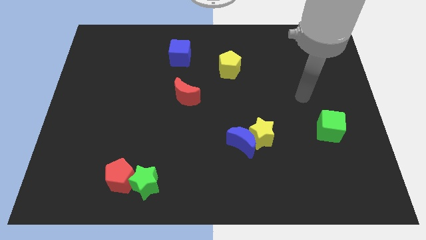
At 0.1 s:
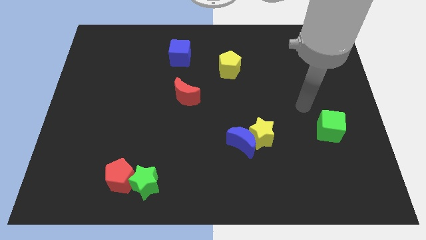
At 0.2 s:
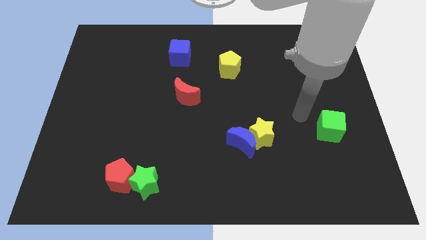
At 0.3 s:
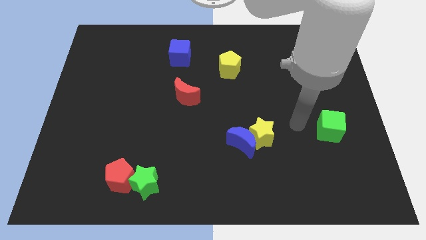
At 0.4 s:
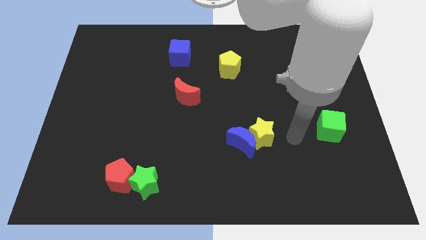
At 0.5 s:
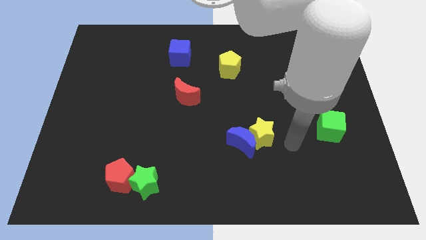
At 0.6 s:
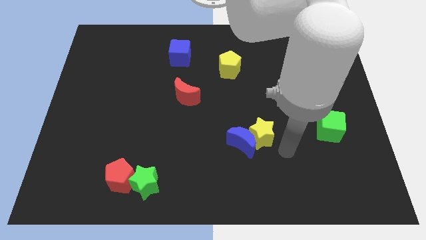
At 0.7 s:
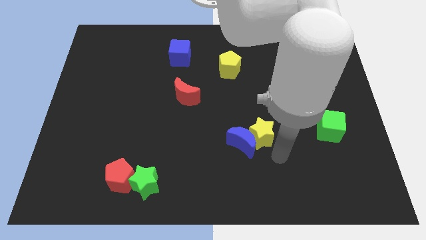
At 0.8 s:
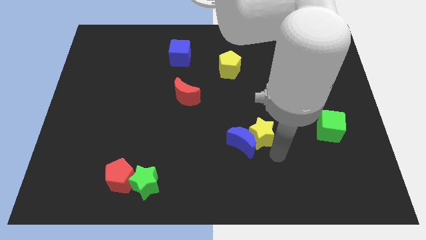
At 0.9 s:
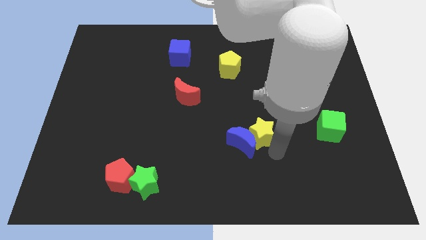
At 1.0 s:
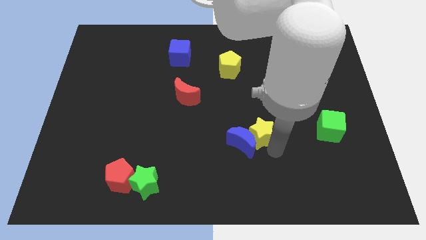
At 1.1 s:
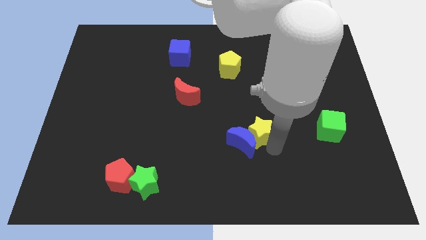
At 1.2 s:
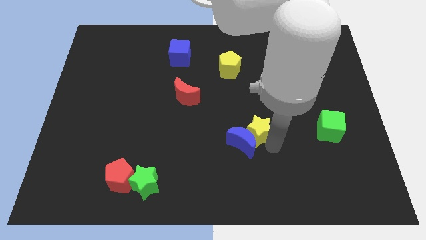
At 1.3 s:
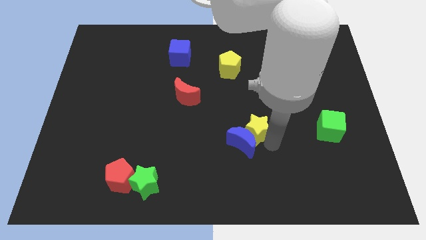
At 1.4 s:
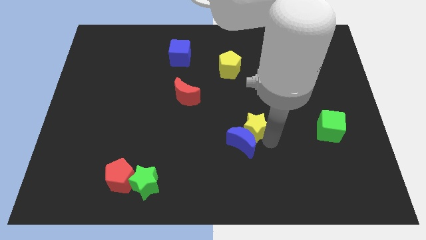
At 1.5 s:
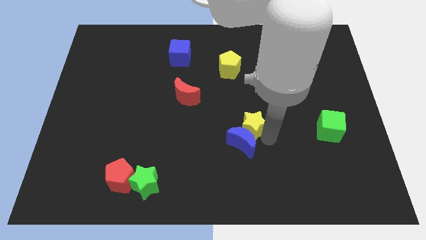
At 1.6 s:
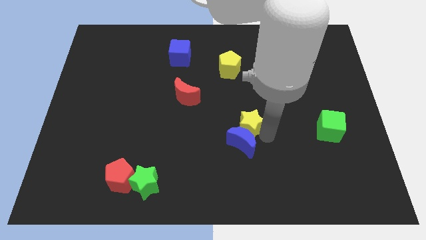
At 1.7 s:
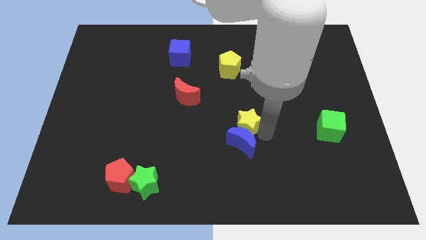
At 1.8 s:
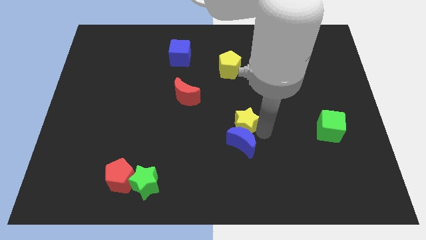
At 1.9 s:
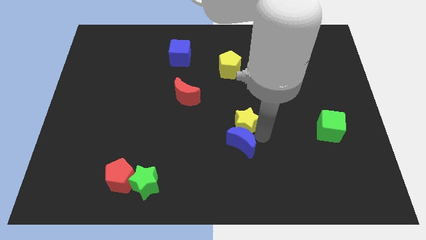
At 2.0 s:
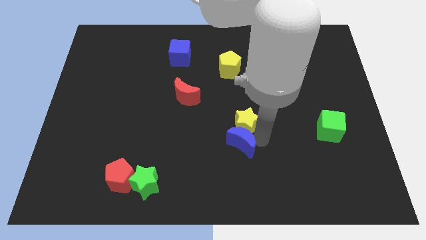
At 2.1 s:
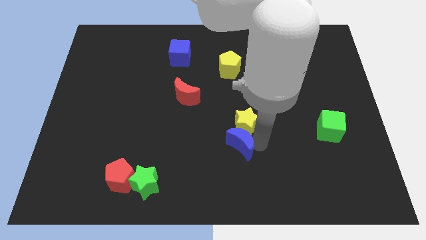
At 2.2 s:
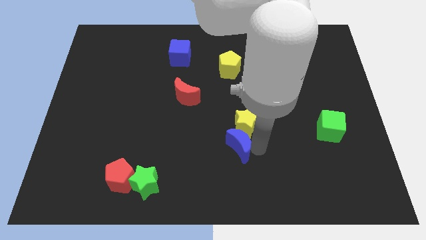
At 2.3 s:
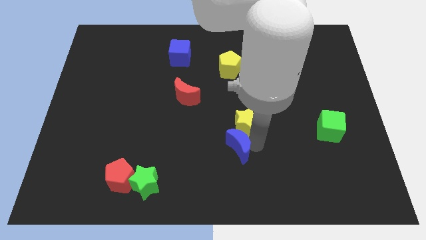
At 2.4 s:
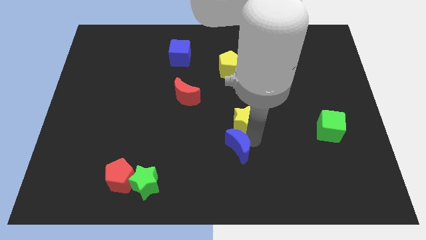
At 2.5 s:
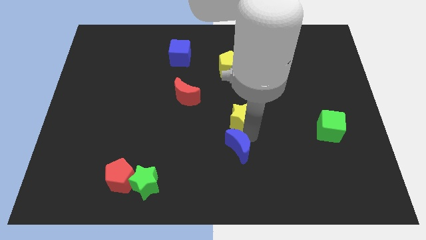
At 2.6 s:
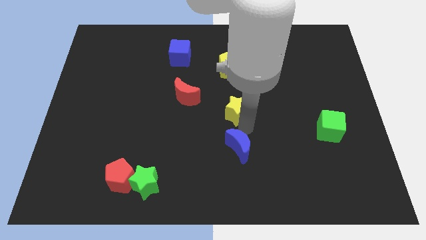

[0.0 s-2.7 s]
push the yellow star upwards and then to the left somewhat

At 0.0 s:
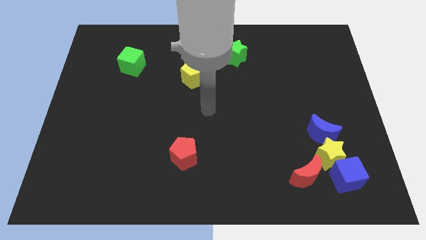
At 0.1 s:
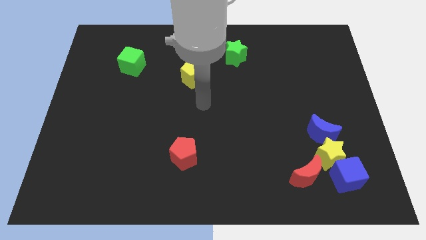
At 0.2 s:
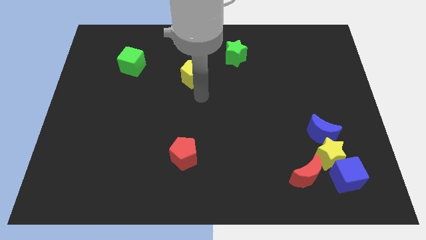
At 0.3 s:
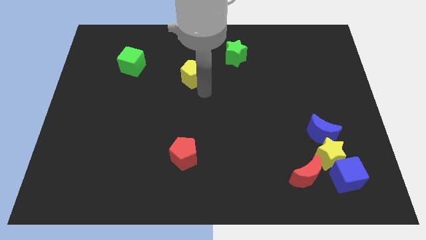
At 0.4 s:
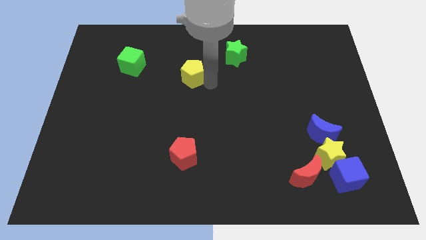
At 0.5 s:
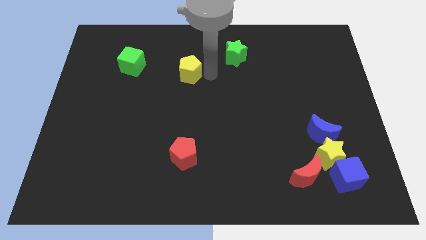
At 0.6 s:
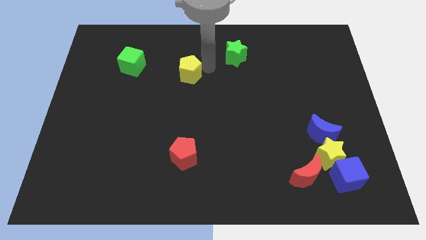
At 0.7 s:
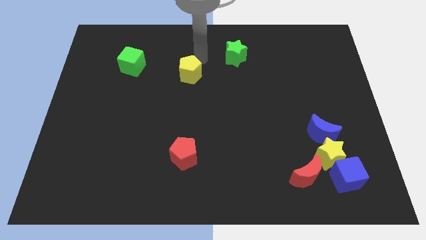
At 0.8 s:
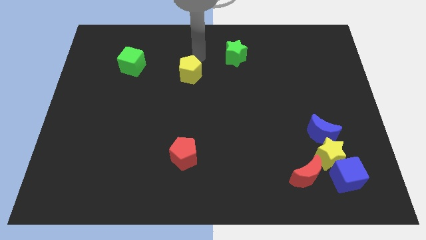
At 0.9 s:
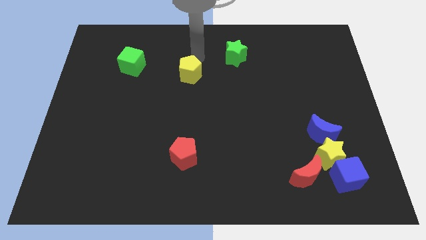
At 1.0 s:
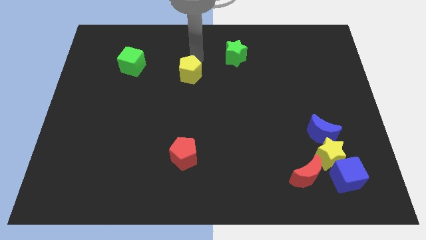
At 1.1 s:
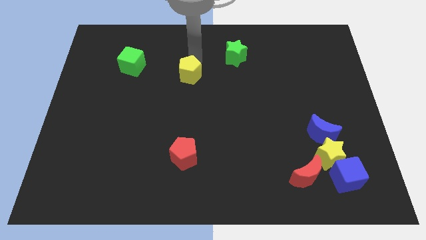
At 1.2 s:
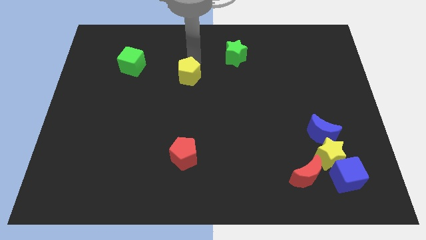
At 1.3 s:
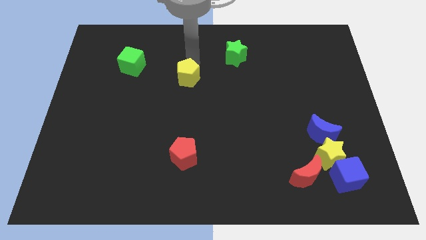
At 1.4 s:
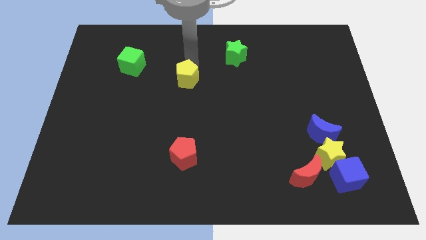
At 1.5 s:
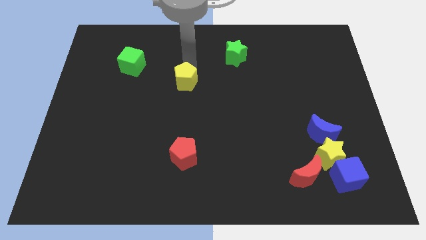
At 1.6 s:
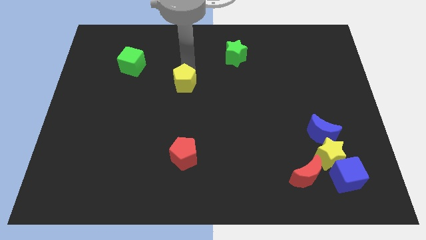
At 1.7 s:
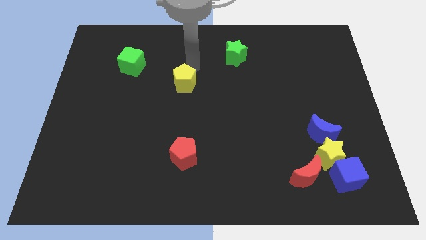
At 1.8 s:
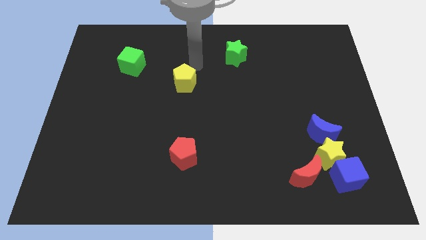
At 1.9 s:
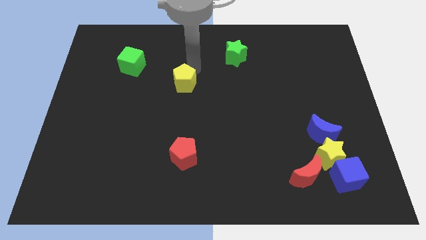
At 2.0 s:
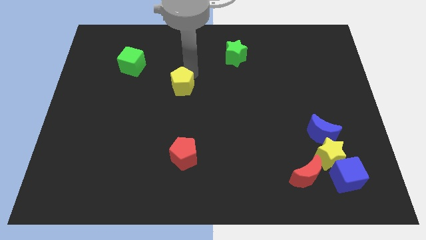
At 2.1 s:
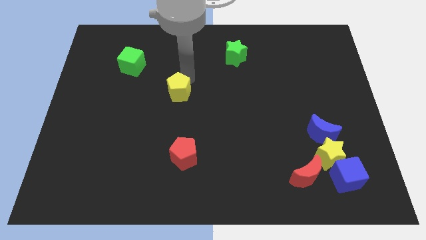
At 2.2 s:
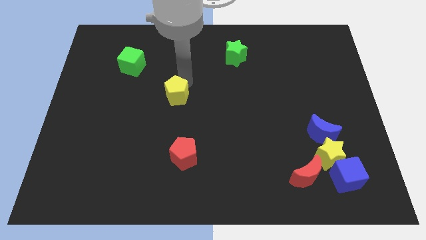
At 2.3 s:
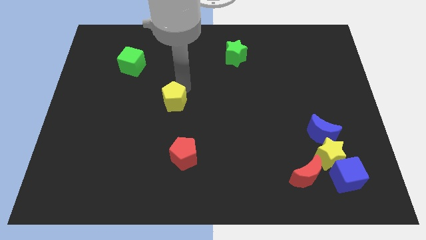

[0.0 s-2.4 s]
move the yellow pentagon downwards and left diagonally slightly

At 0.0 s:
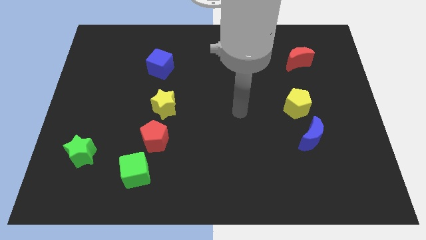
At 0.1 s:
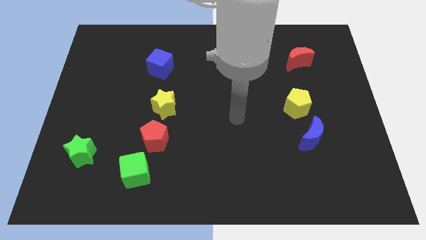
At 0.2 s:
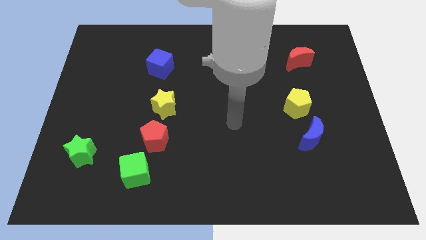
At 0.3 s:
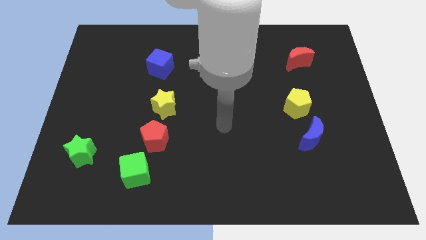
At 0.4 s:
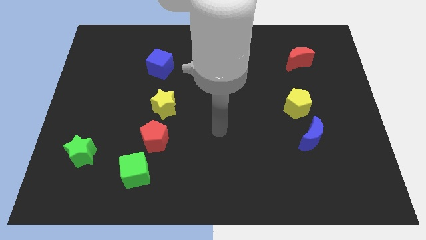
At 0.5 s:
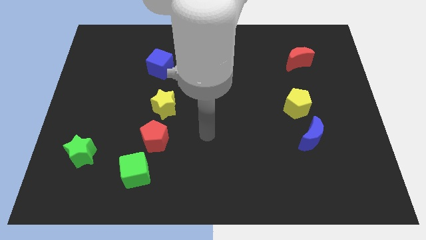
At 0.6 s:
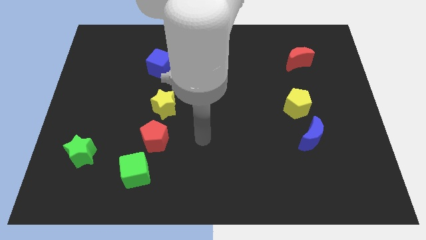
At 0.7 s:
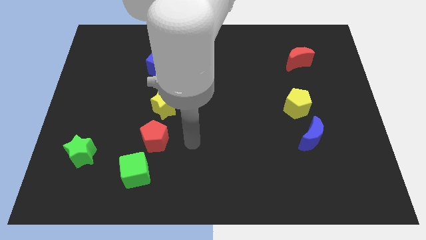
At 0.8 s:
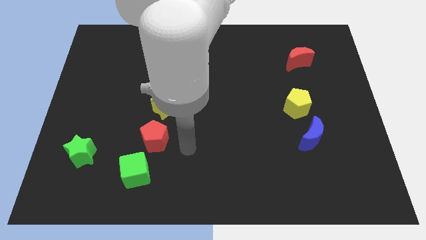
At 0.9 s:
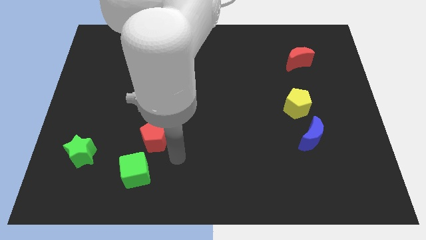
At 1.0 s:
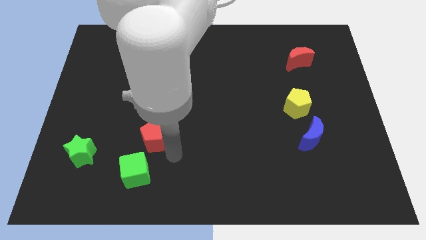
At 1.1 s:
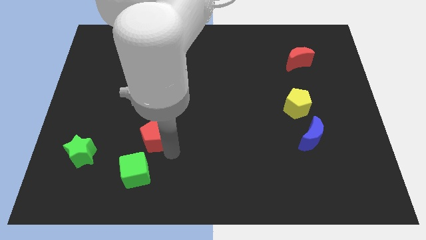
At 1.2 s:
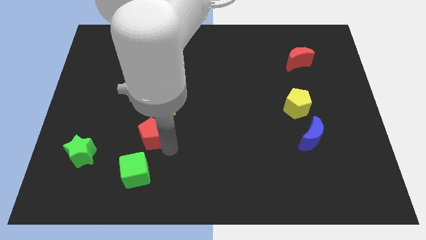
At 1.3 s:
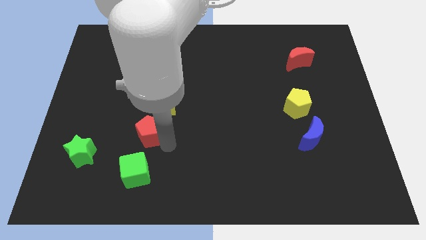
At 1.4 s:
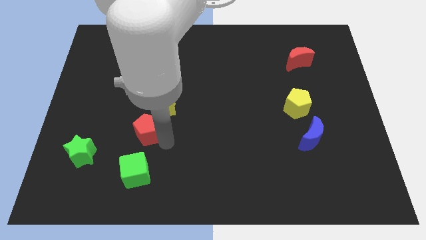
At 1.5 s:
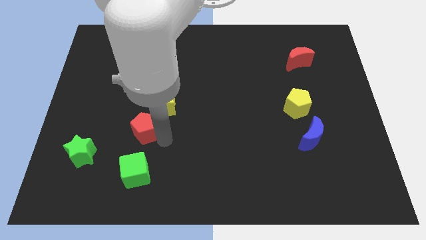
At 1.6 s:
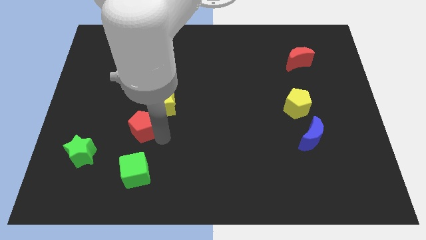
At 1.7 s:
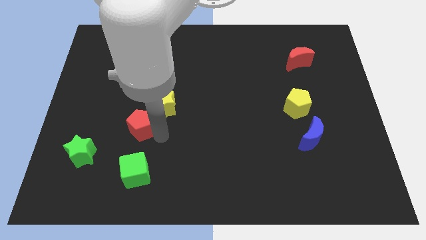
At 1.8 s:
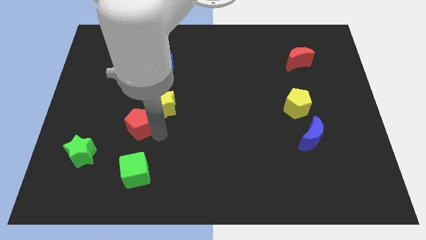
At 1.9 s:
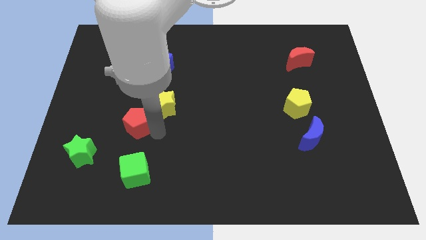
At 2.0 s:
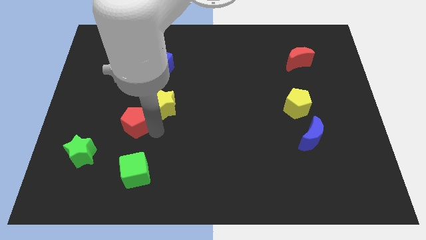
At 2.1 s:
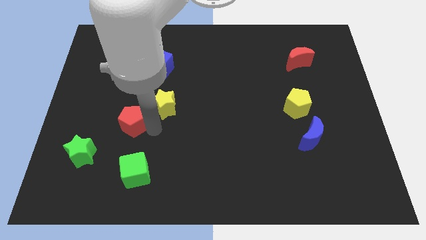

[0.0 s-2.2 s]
move the red pentagon up and to the left a bit

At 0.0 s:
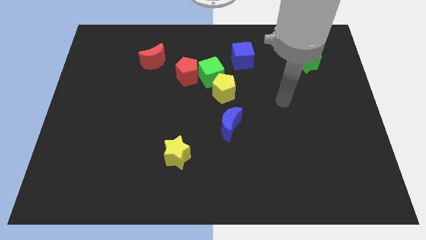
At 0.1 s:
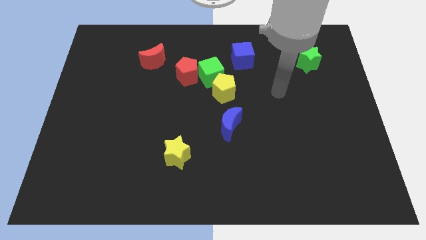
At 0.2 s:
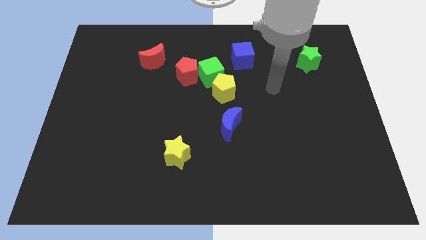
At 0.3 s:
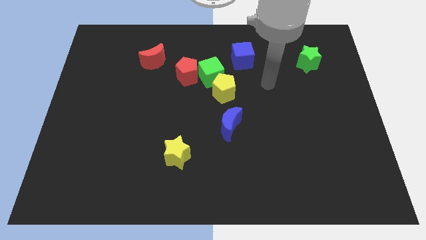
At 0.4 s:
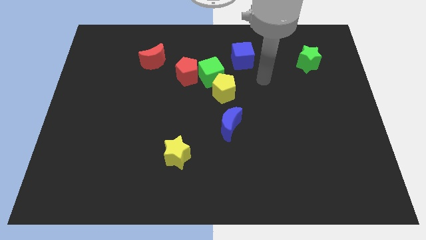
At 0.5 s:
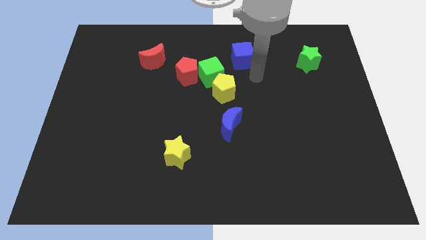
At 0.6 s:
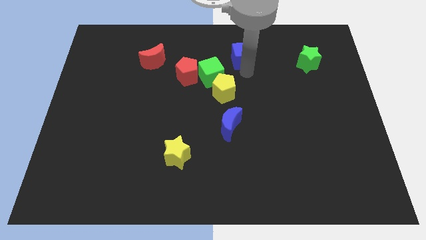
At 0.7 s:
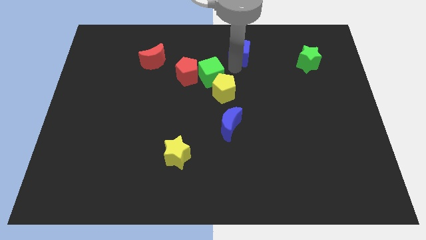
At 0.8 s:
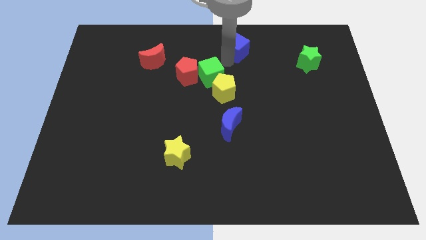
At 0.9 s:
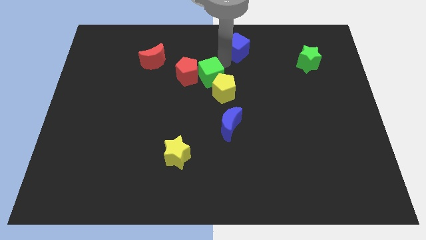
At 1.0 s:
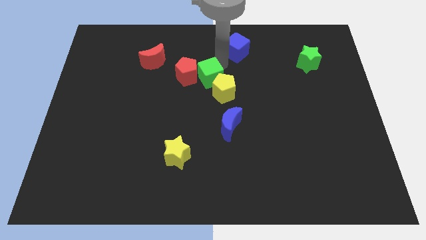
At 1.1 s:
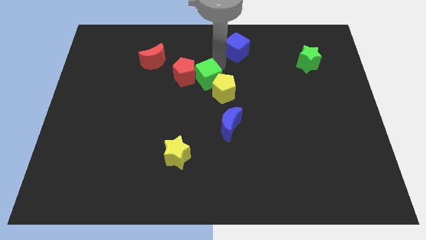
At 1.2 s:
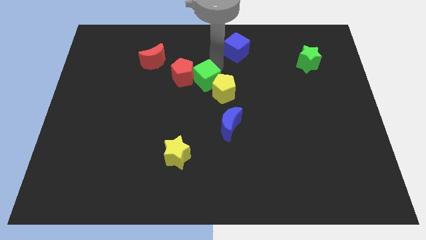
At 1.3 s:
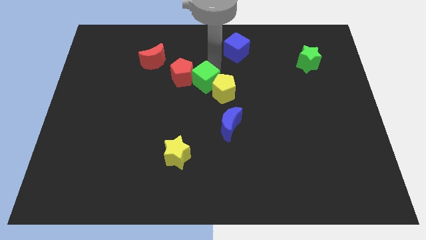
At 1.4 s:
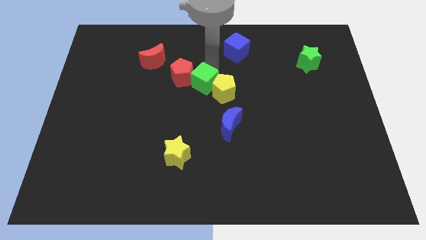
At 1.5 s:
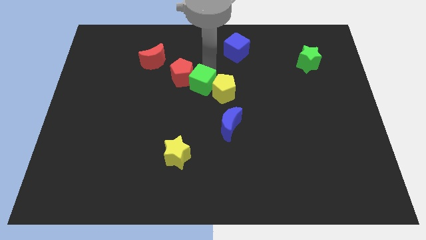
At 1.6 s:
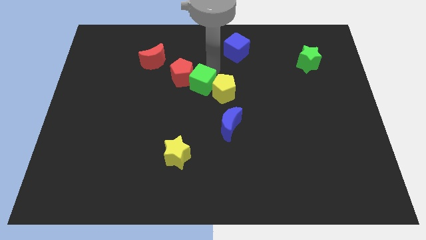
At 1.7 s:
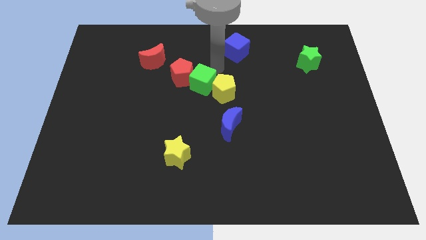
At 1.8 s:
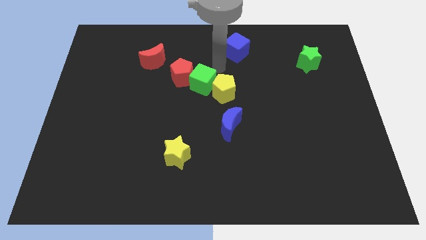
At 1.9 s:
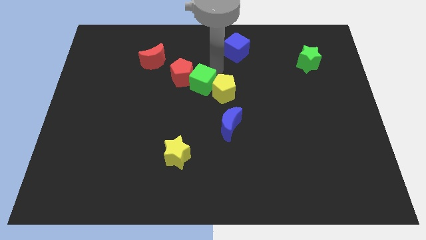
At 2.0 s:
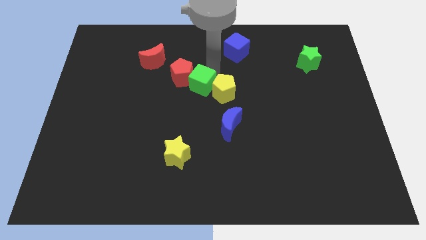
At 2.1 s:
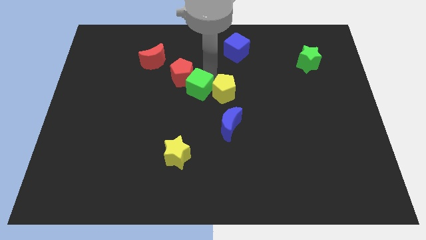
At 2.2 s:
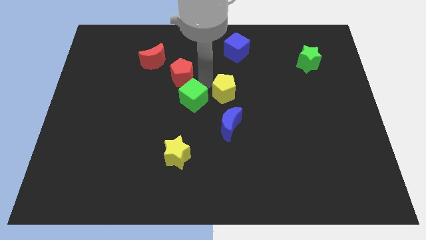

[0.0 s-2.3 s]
push the green cube slightly downwards and then left
